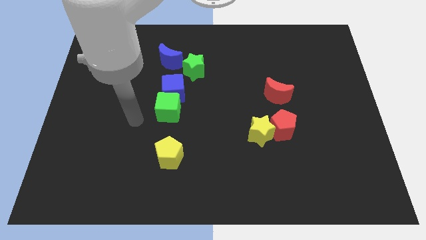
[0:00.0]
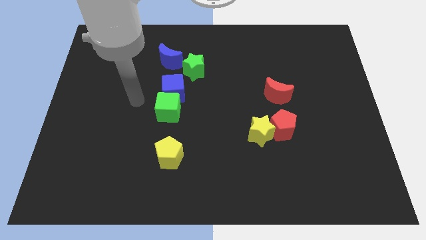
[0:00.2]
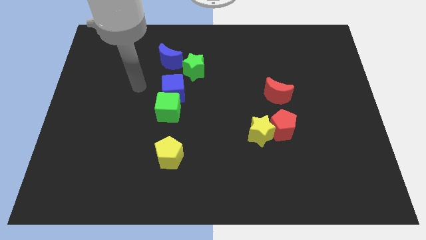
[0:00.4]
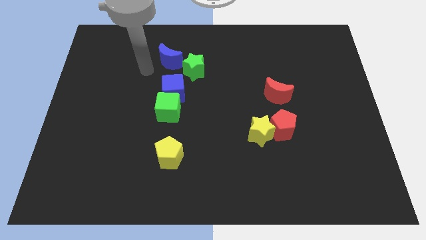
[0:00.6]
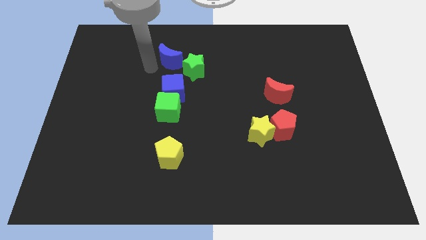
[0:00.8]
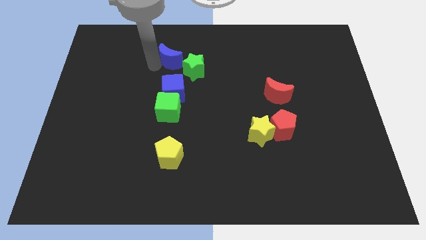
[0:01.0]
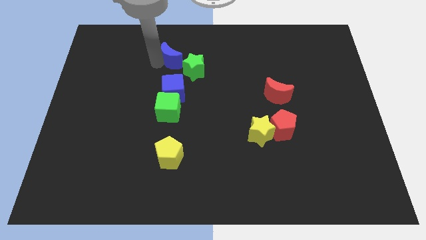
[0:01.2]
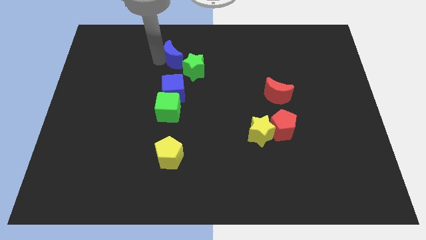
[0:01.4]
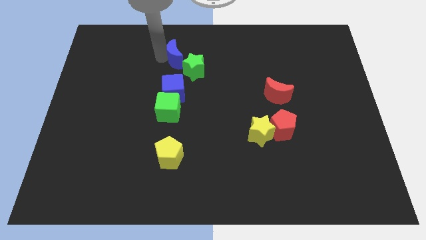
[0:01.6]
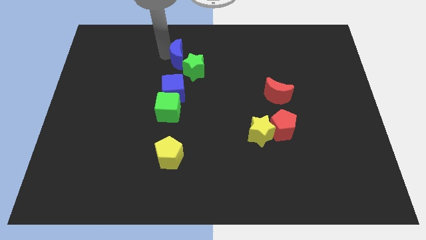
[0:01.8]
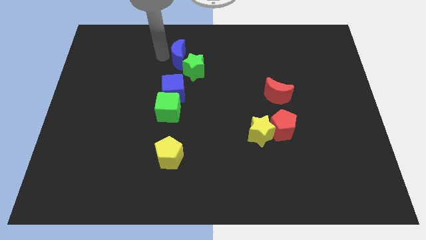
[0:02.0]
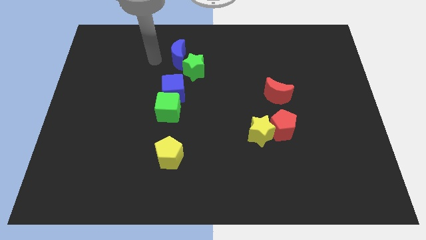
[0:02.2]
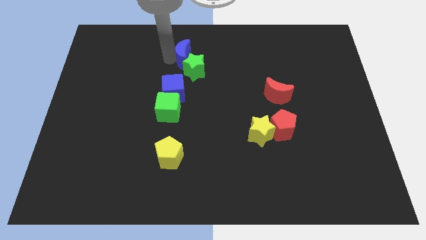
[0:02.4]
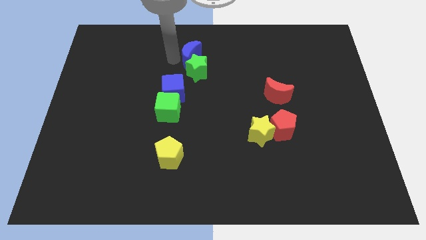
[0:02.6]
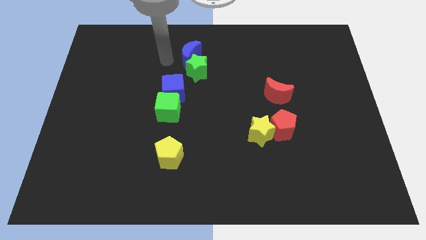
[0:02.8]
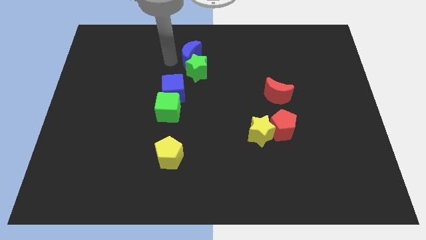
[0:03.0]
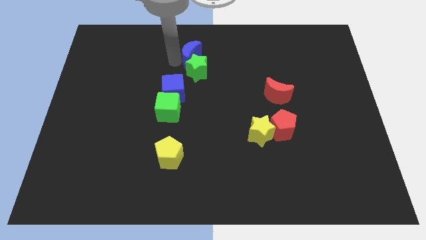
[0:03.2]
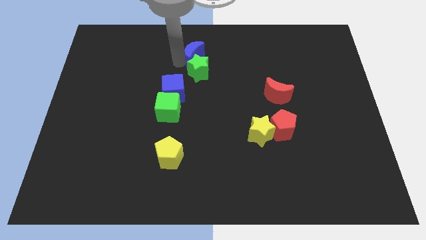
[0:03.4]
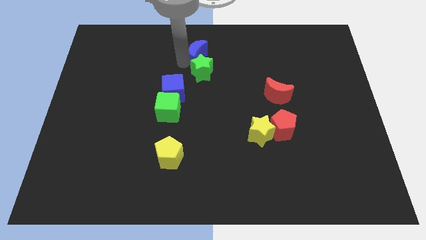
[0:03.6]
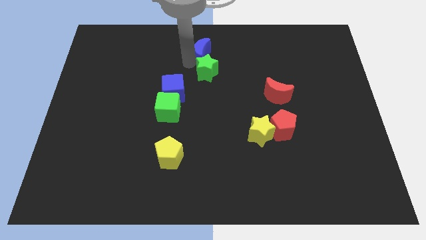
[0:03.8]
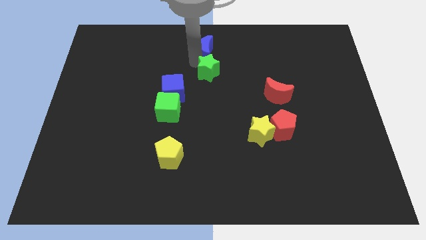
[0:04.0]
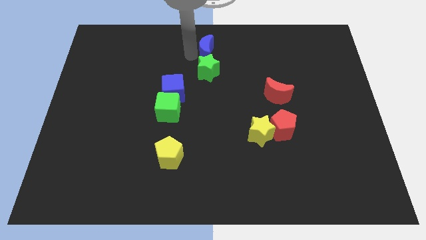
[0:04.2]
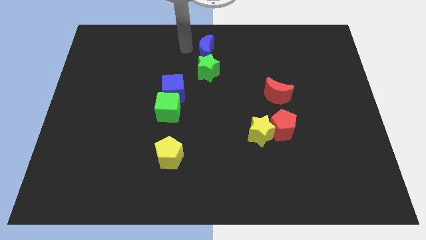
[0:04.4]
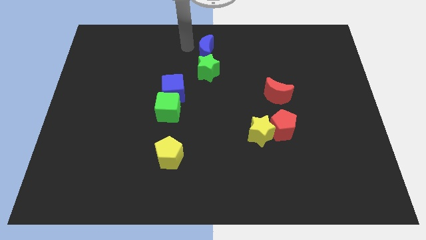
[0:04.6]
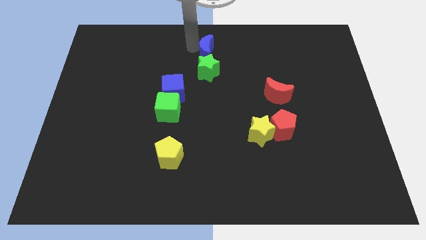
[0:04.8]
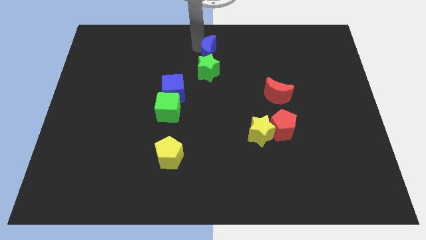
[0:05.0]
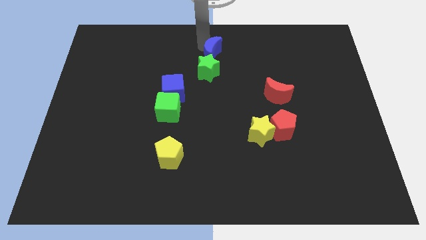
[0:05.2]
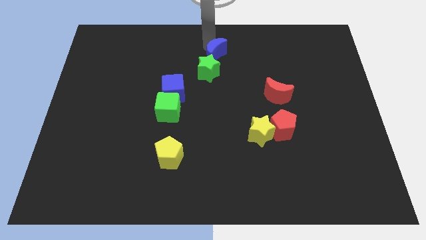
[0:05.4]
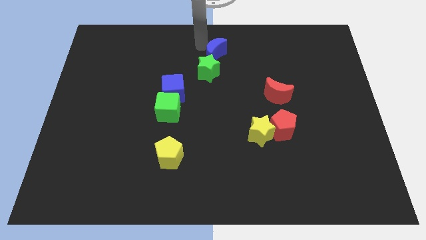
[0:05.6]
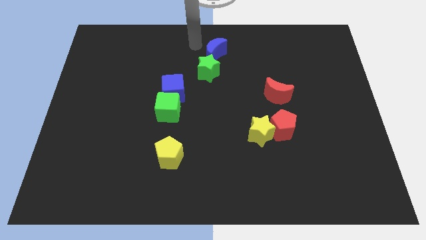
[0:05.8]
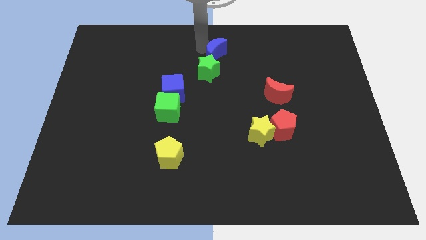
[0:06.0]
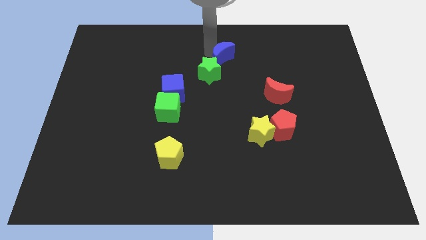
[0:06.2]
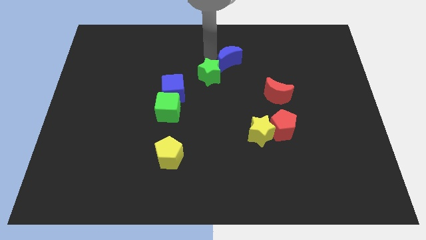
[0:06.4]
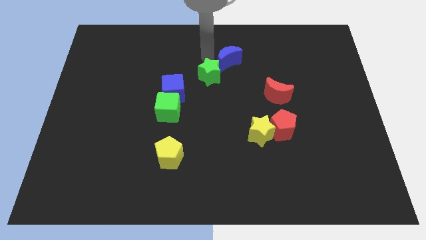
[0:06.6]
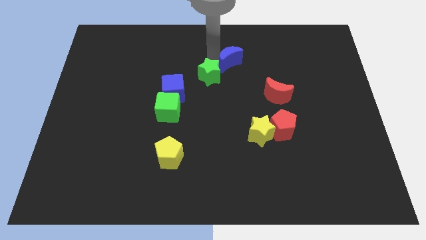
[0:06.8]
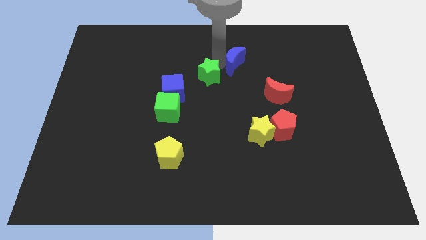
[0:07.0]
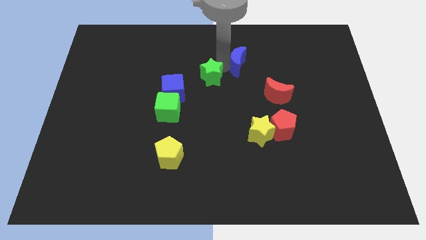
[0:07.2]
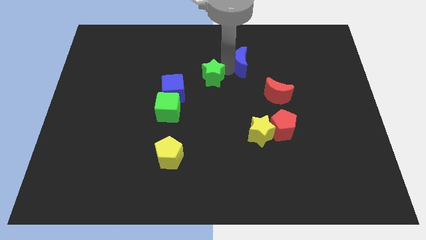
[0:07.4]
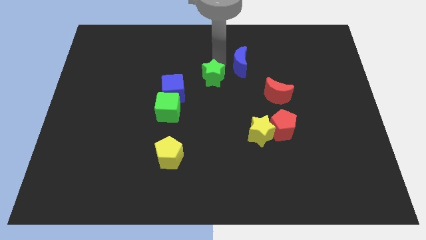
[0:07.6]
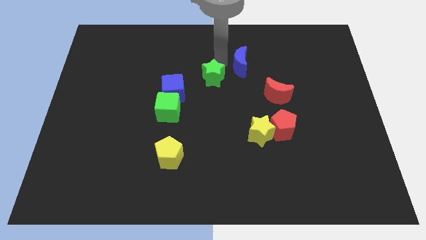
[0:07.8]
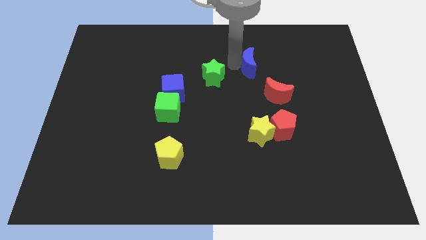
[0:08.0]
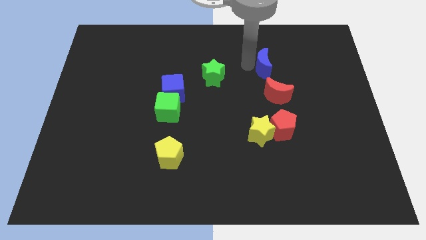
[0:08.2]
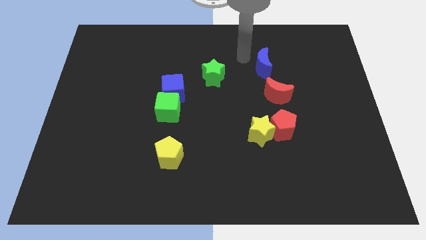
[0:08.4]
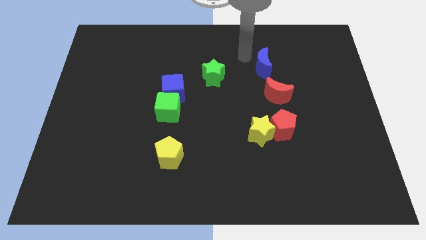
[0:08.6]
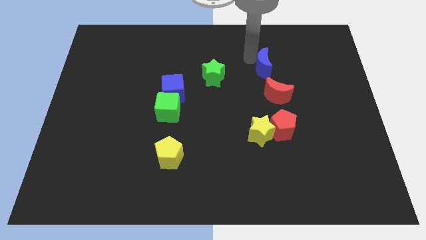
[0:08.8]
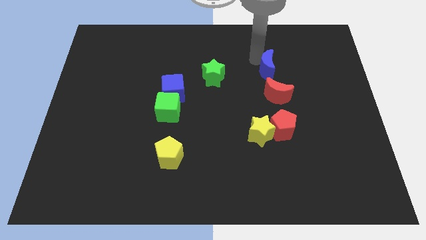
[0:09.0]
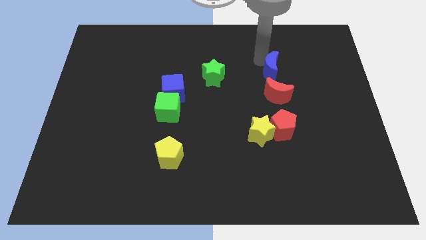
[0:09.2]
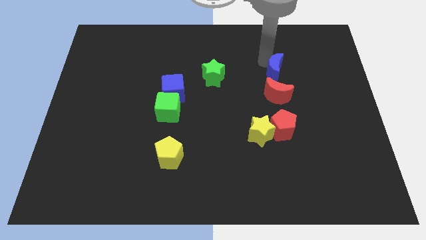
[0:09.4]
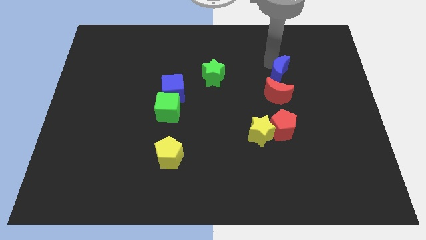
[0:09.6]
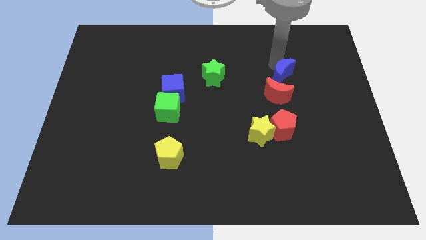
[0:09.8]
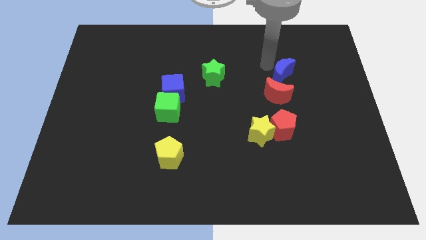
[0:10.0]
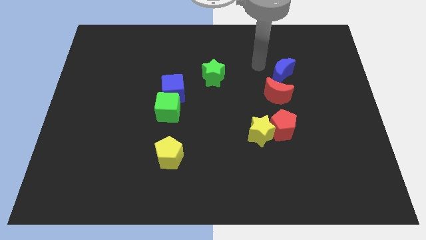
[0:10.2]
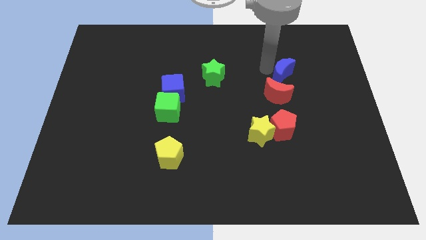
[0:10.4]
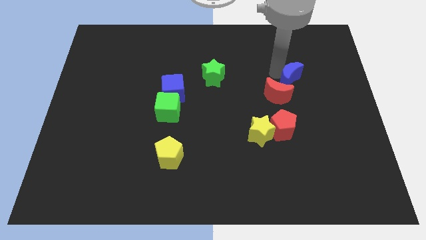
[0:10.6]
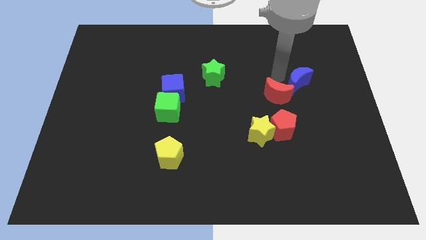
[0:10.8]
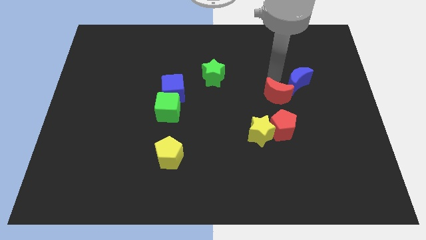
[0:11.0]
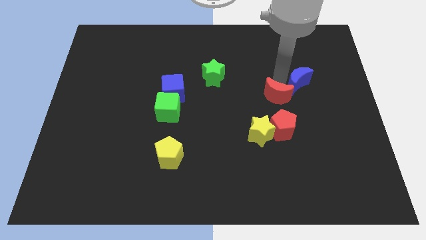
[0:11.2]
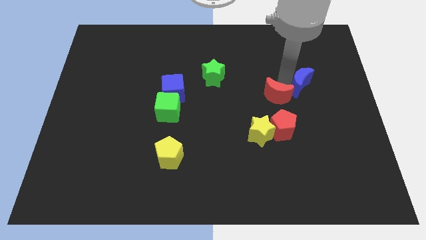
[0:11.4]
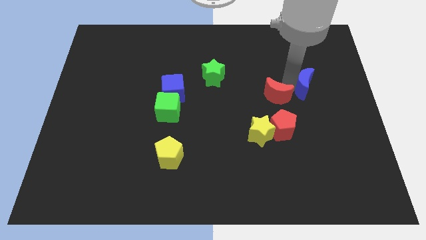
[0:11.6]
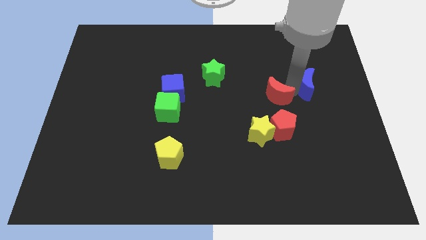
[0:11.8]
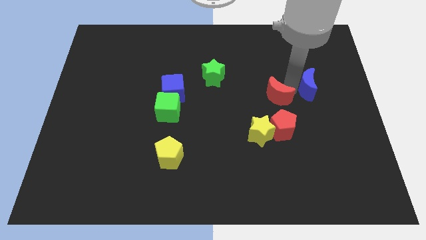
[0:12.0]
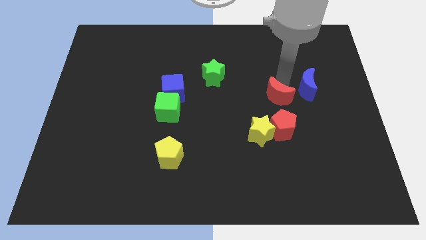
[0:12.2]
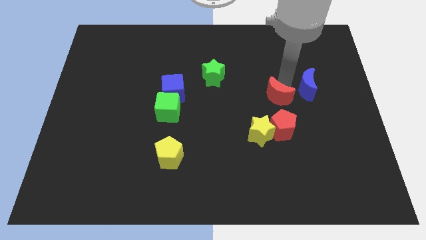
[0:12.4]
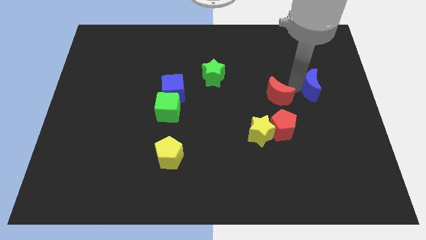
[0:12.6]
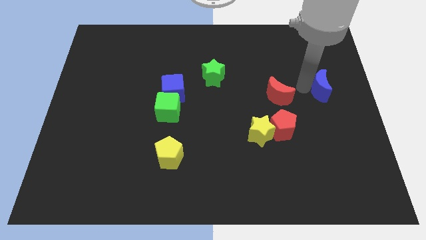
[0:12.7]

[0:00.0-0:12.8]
push the blue moon to the center right

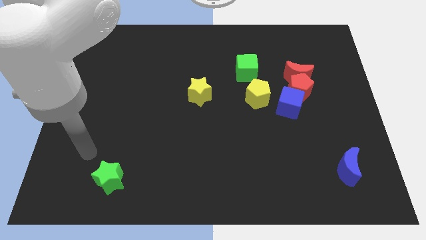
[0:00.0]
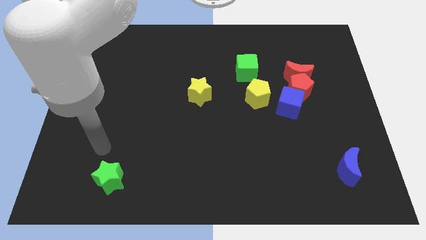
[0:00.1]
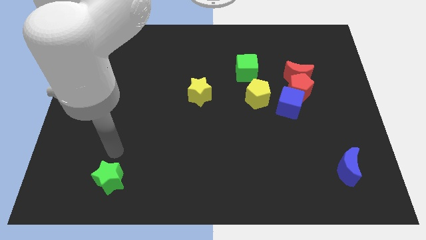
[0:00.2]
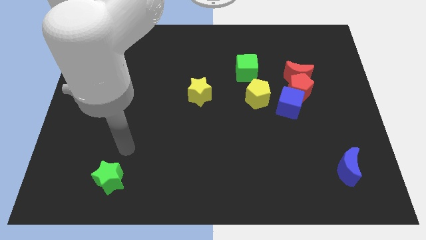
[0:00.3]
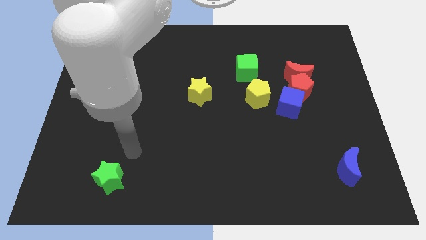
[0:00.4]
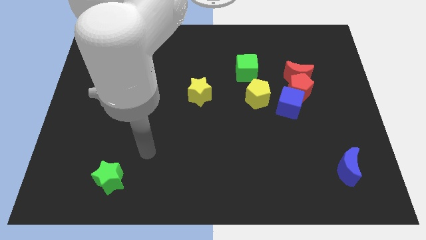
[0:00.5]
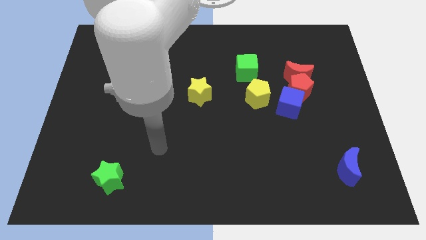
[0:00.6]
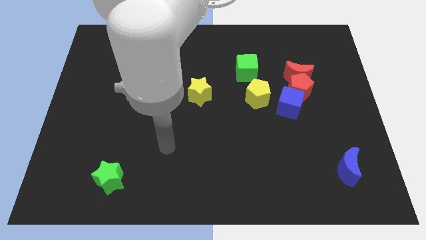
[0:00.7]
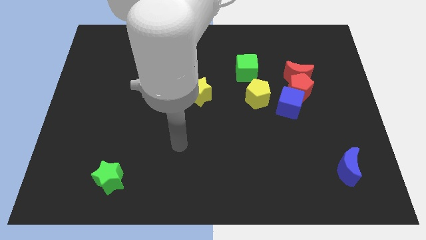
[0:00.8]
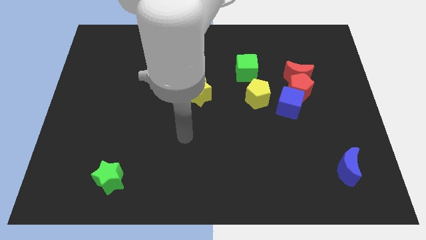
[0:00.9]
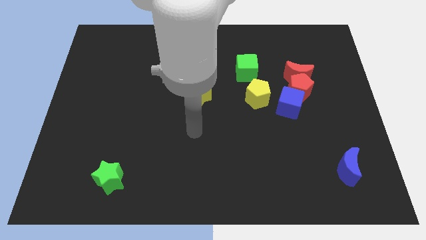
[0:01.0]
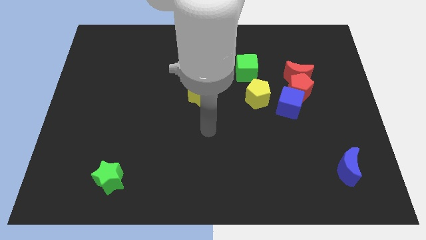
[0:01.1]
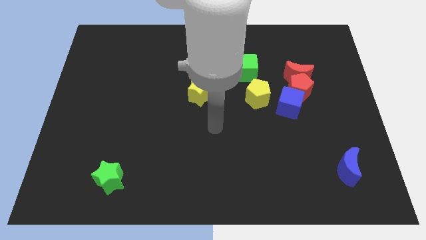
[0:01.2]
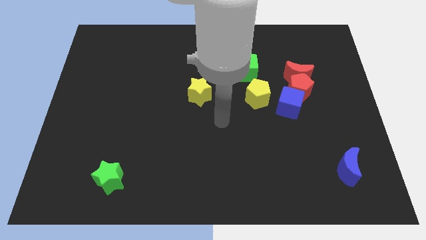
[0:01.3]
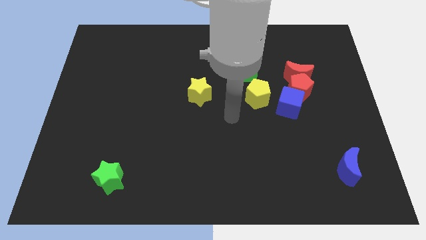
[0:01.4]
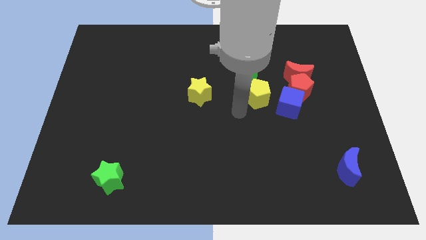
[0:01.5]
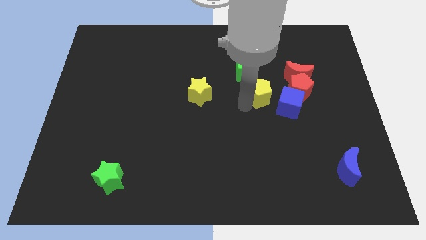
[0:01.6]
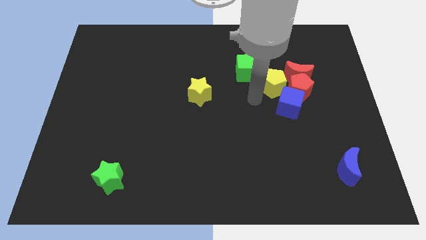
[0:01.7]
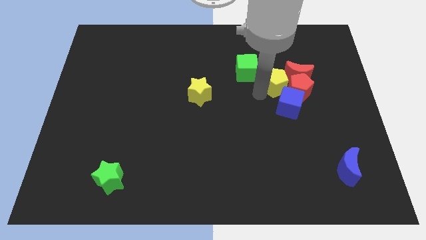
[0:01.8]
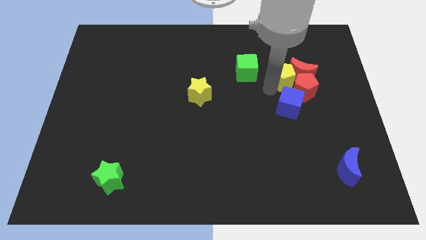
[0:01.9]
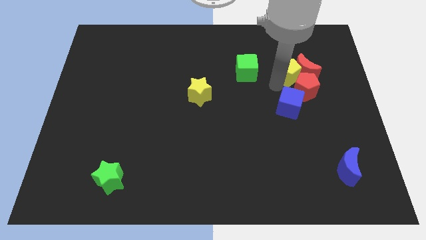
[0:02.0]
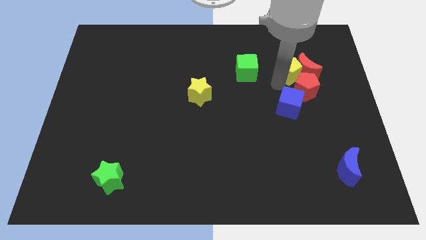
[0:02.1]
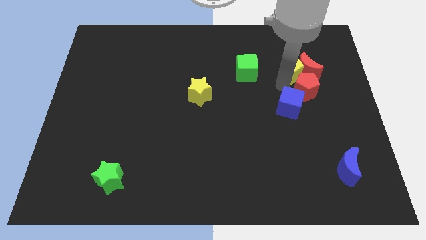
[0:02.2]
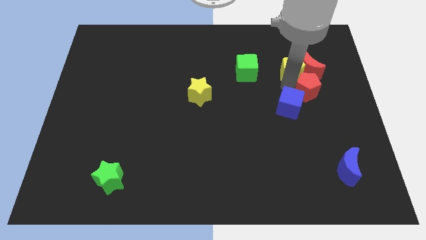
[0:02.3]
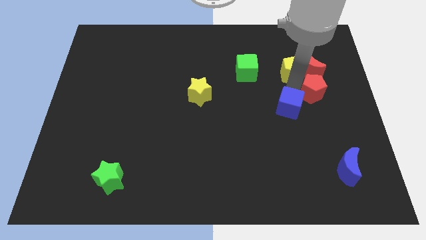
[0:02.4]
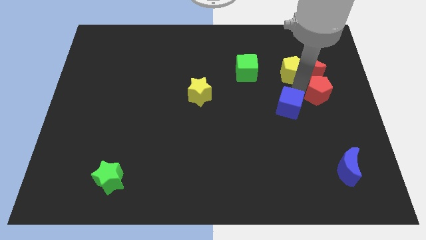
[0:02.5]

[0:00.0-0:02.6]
move the red pentagon to the right side
